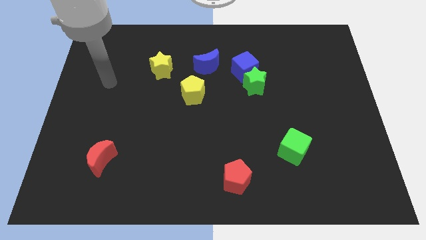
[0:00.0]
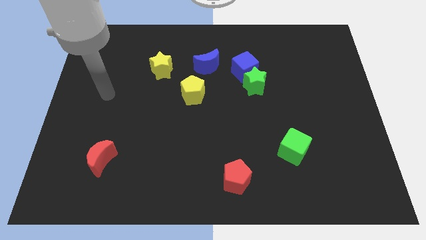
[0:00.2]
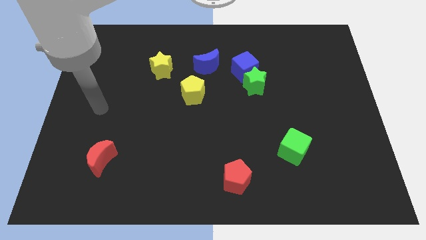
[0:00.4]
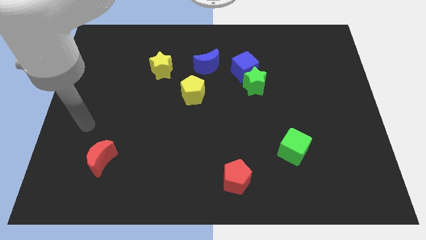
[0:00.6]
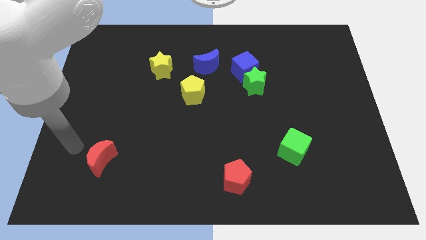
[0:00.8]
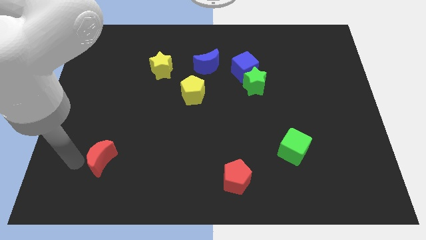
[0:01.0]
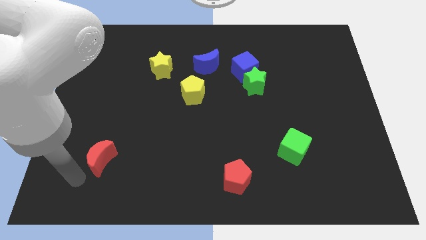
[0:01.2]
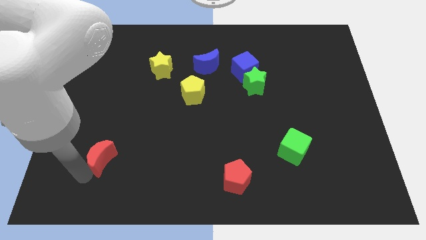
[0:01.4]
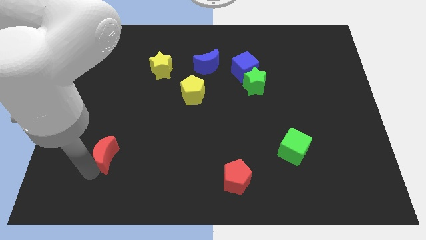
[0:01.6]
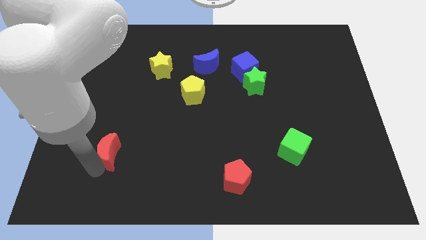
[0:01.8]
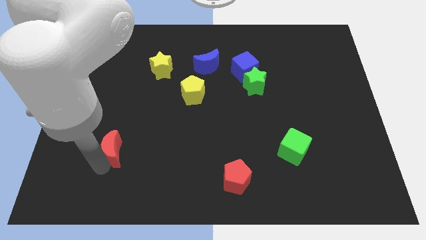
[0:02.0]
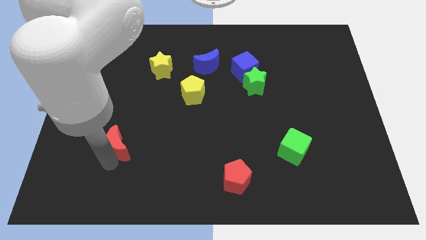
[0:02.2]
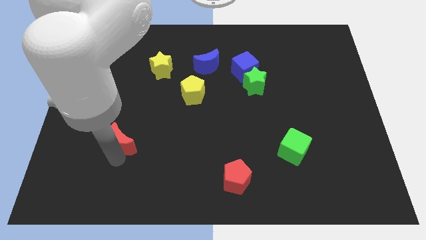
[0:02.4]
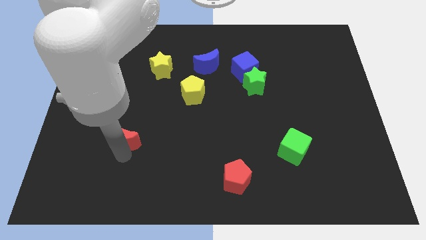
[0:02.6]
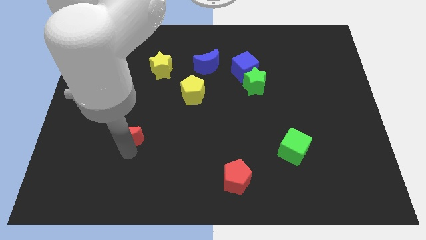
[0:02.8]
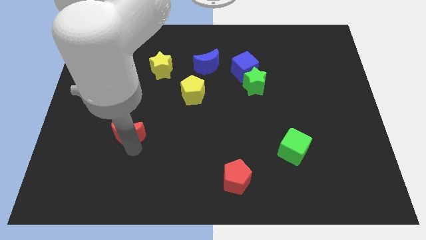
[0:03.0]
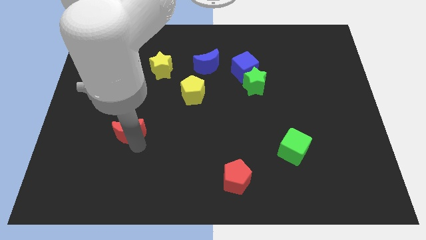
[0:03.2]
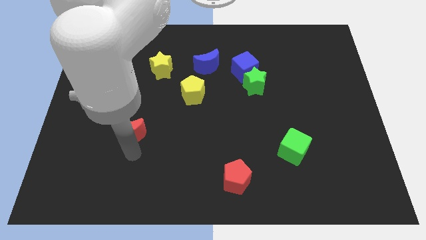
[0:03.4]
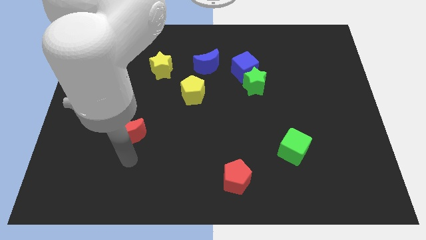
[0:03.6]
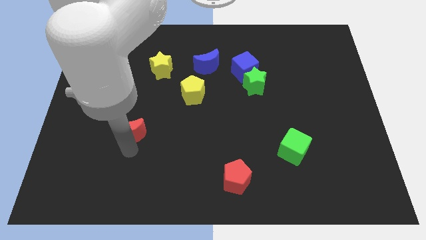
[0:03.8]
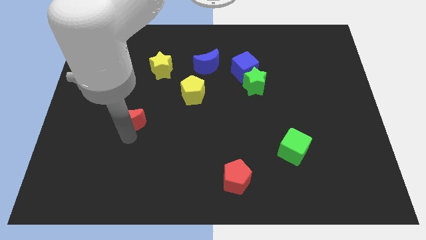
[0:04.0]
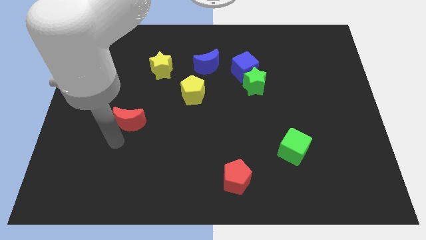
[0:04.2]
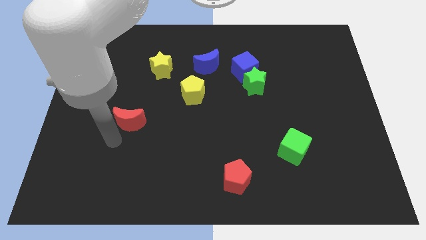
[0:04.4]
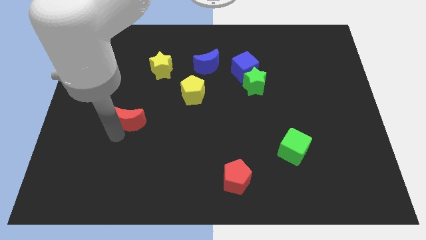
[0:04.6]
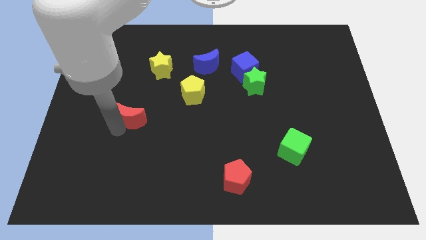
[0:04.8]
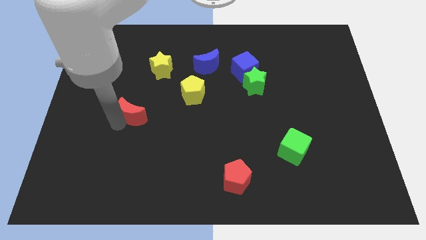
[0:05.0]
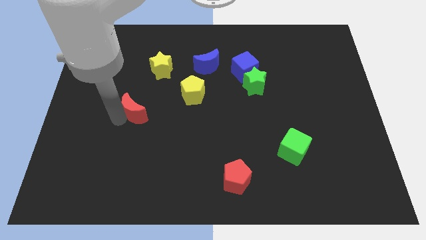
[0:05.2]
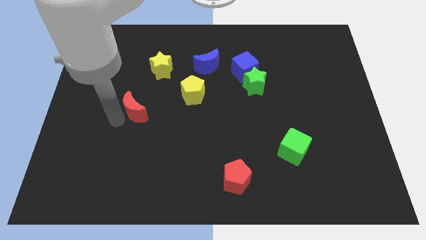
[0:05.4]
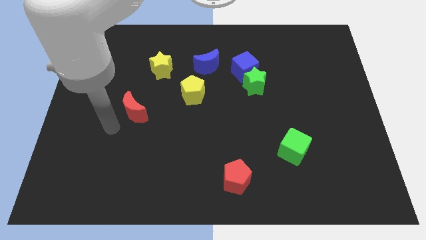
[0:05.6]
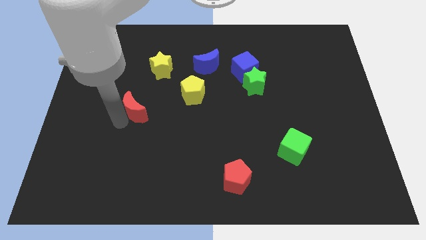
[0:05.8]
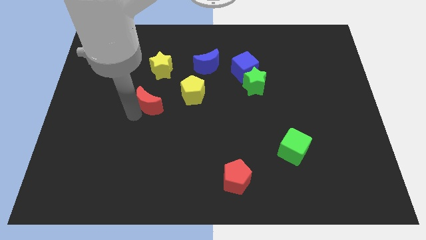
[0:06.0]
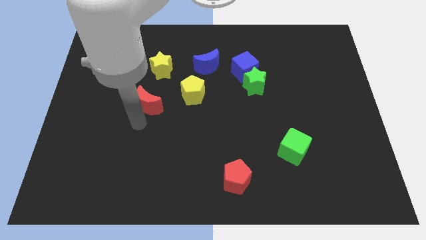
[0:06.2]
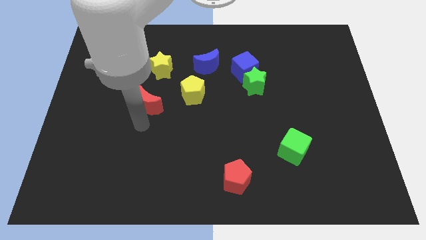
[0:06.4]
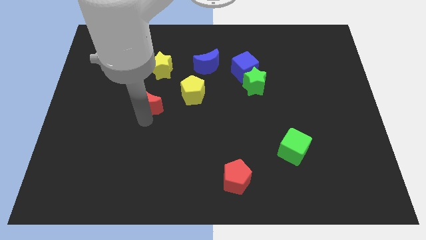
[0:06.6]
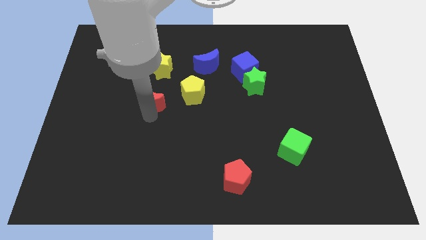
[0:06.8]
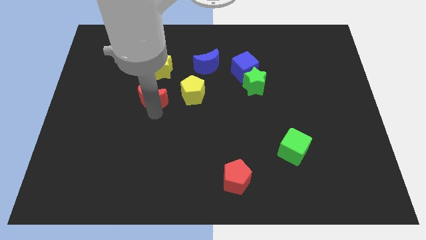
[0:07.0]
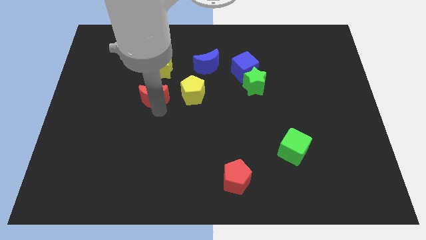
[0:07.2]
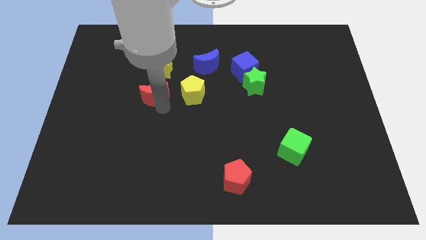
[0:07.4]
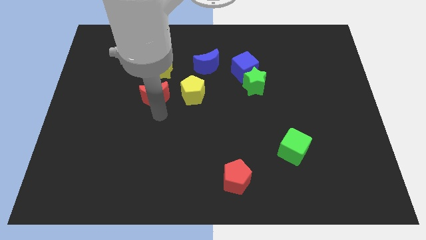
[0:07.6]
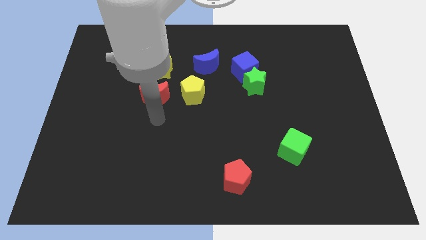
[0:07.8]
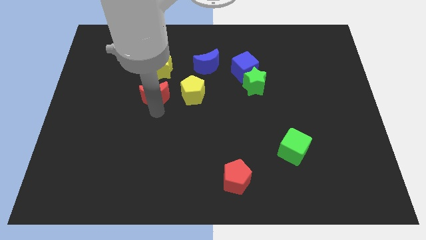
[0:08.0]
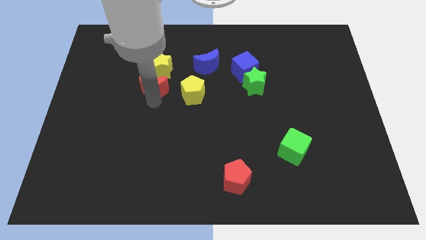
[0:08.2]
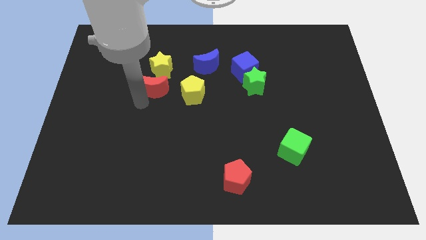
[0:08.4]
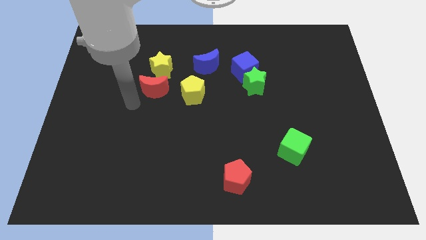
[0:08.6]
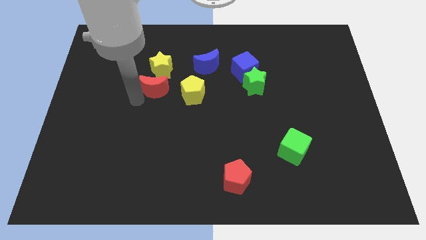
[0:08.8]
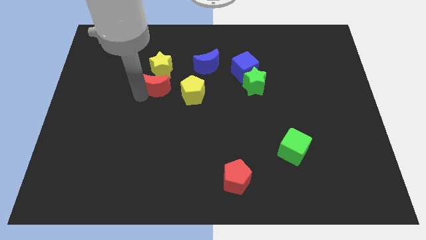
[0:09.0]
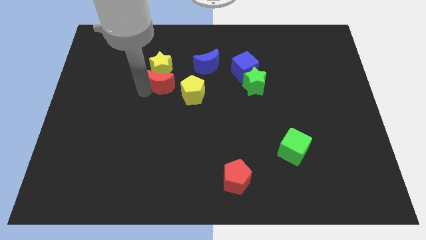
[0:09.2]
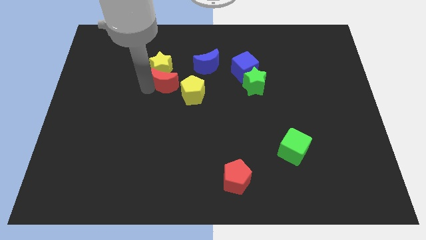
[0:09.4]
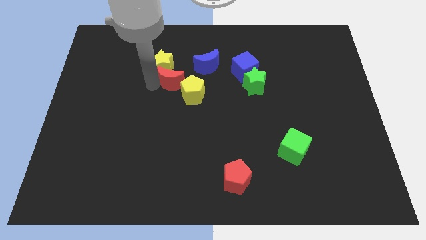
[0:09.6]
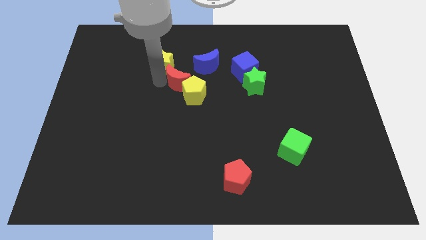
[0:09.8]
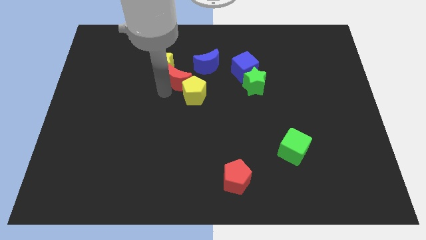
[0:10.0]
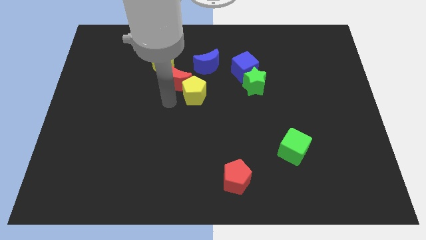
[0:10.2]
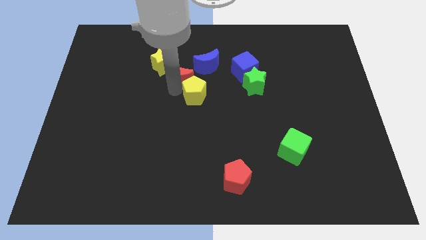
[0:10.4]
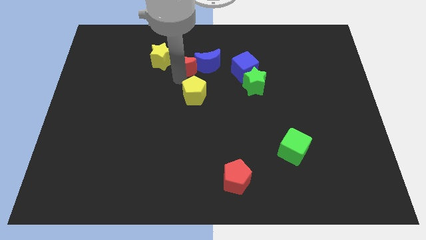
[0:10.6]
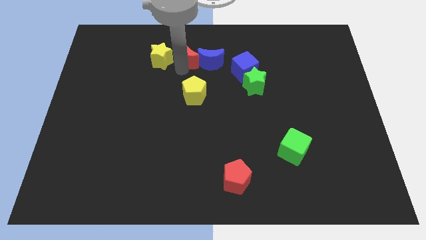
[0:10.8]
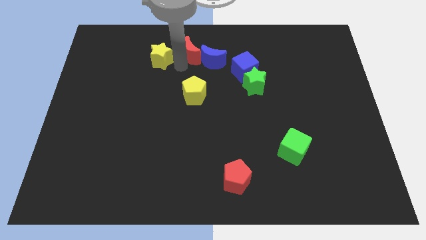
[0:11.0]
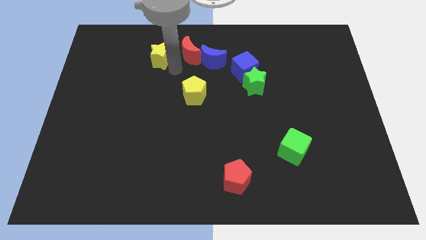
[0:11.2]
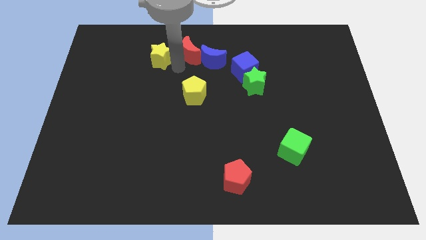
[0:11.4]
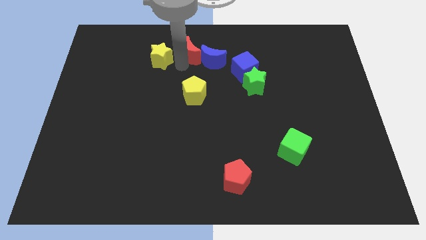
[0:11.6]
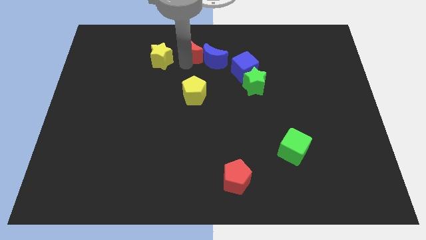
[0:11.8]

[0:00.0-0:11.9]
put the red moon to the top side

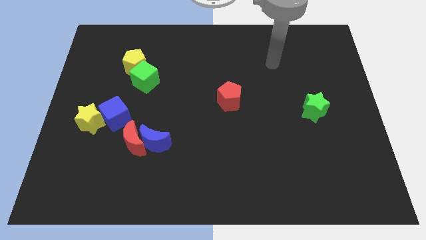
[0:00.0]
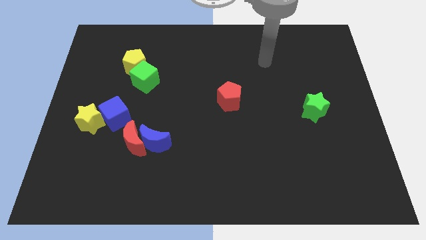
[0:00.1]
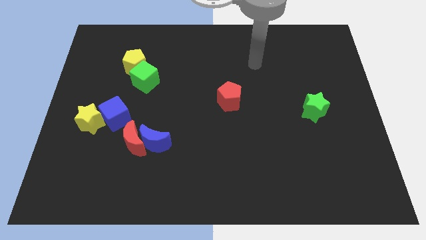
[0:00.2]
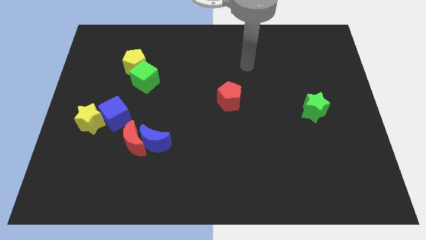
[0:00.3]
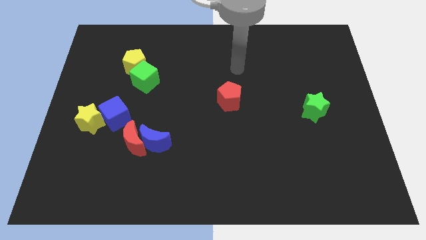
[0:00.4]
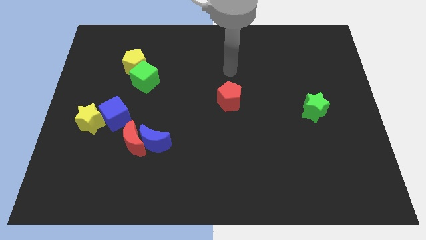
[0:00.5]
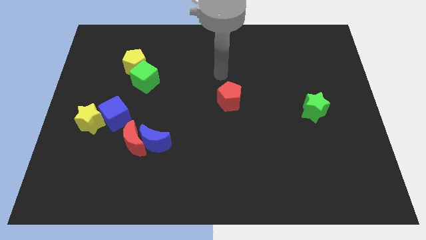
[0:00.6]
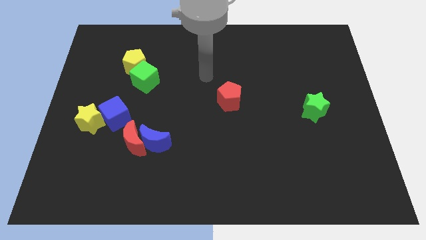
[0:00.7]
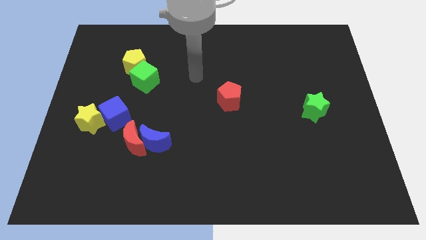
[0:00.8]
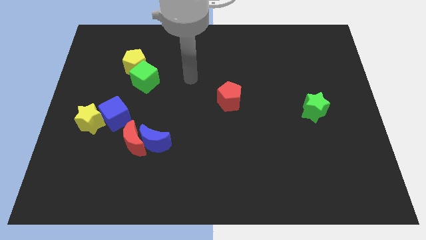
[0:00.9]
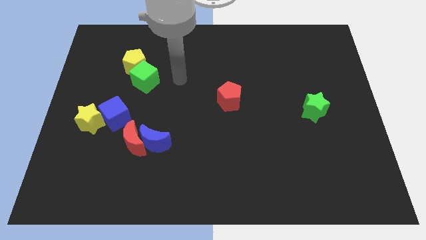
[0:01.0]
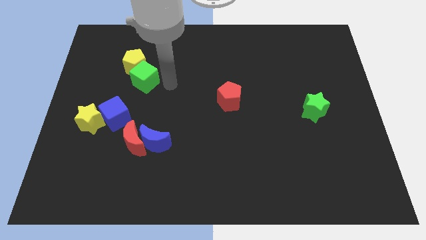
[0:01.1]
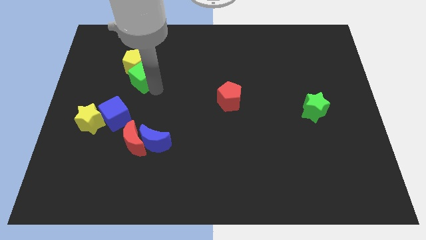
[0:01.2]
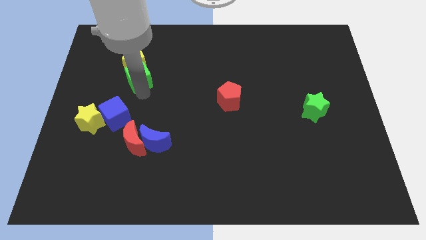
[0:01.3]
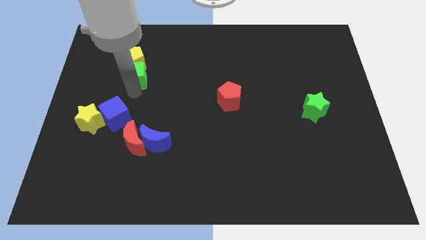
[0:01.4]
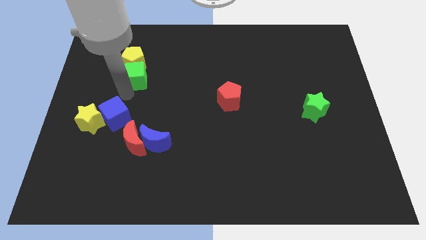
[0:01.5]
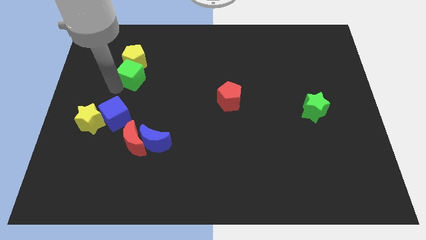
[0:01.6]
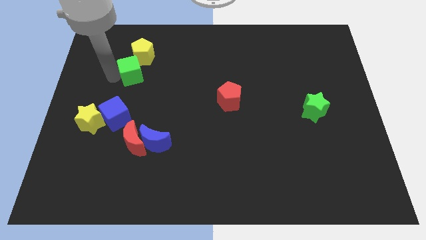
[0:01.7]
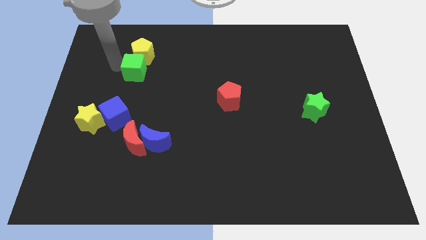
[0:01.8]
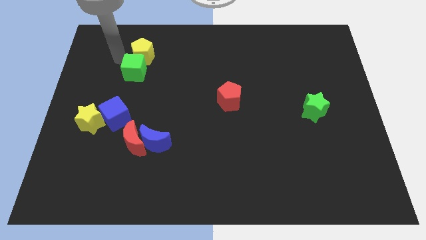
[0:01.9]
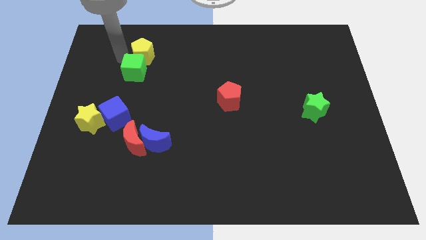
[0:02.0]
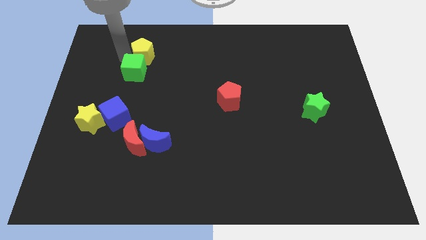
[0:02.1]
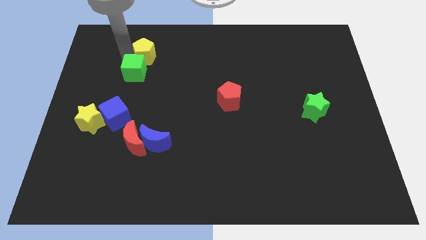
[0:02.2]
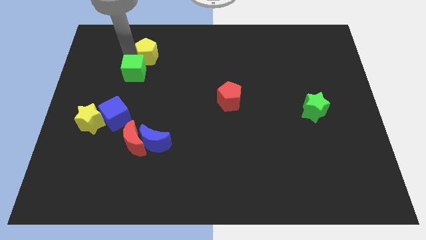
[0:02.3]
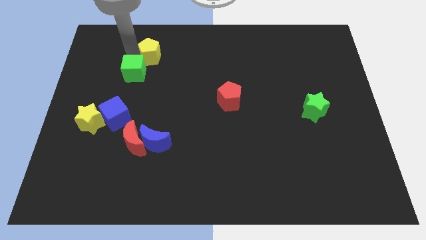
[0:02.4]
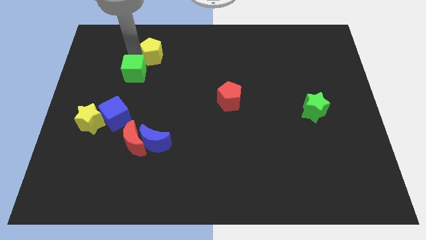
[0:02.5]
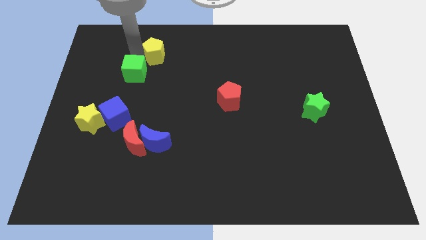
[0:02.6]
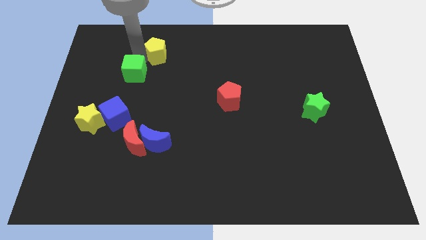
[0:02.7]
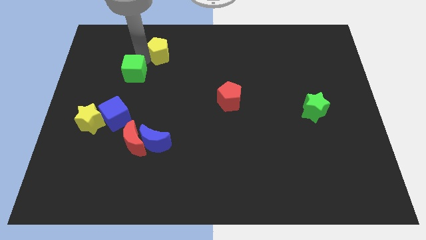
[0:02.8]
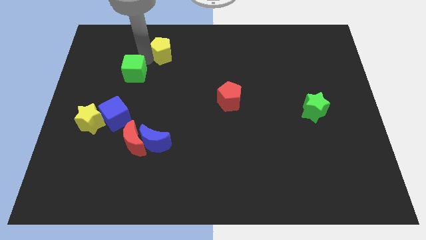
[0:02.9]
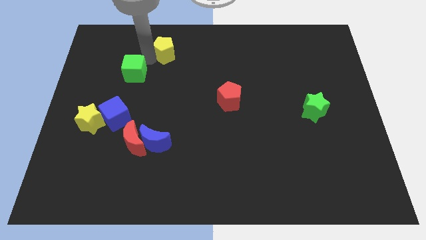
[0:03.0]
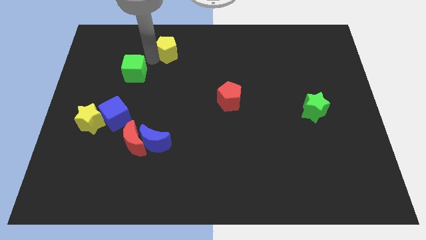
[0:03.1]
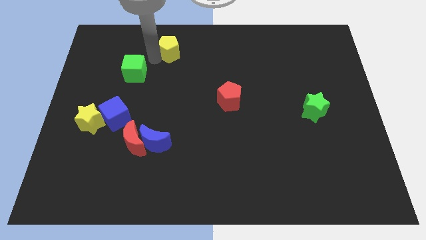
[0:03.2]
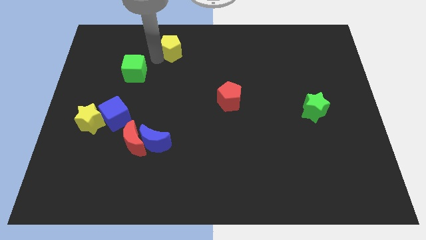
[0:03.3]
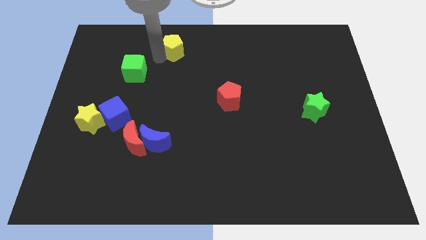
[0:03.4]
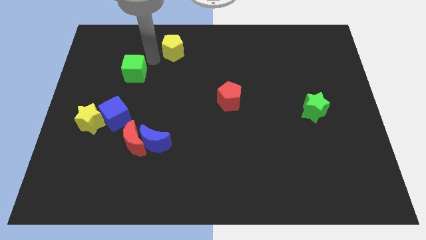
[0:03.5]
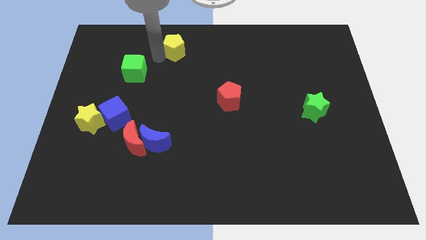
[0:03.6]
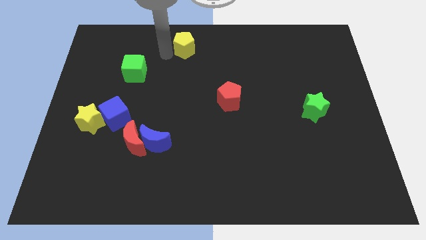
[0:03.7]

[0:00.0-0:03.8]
move the yellow pentagon to the towards your base
